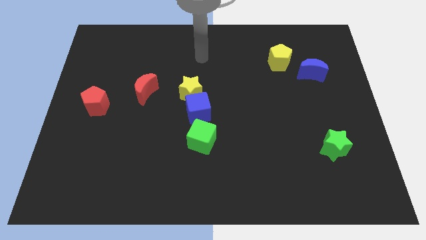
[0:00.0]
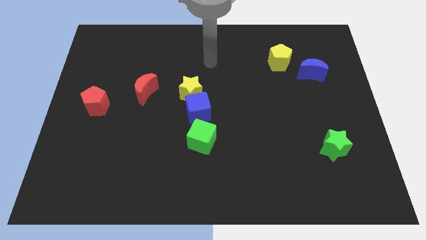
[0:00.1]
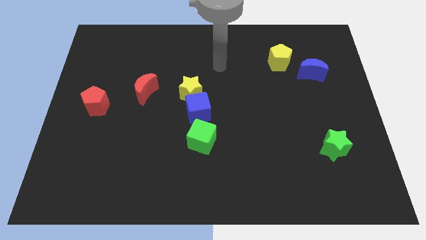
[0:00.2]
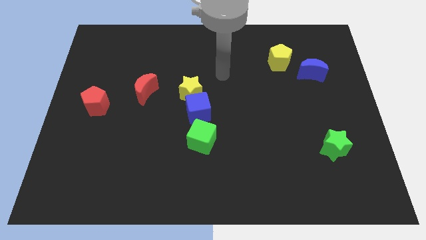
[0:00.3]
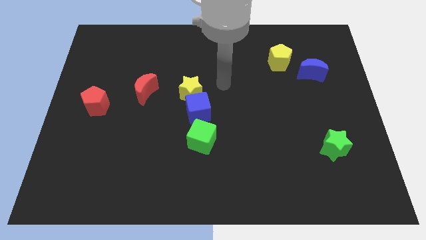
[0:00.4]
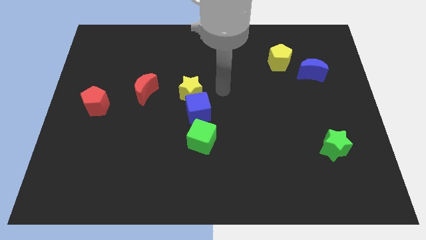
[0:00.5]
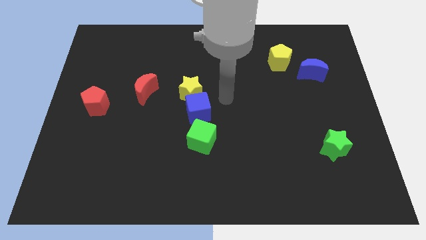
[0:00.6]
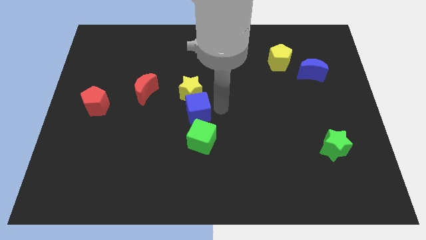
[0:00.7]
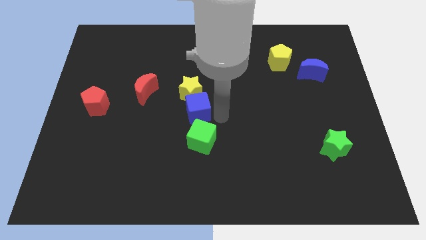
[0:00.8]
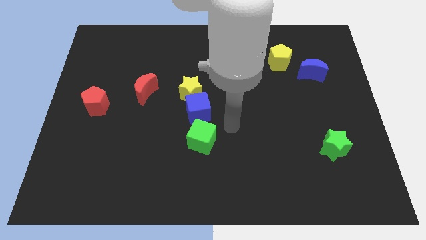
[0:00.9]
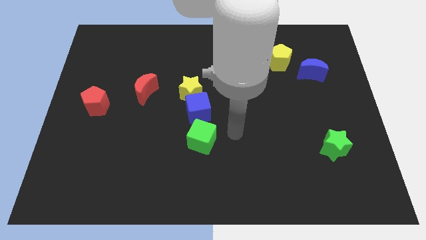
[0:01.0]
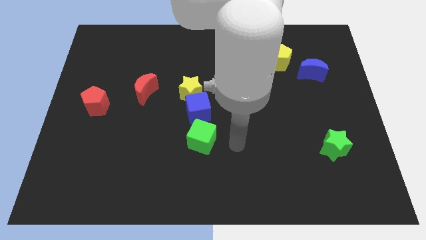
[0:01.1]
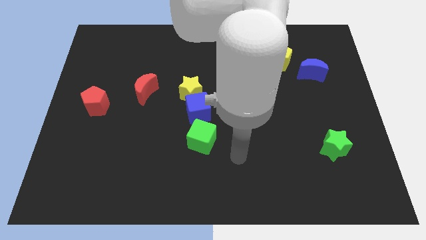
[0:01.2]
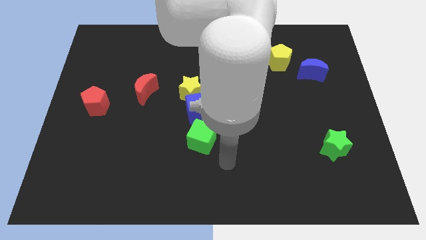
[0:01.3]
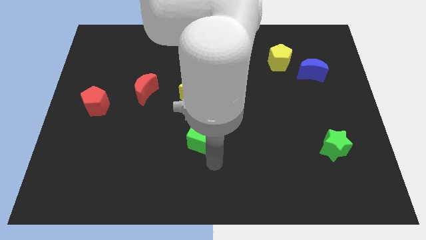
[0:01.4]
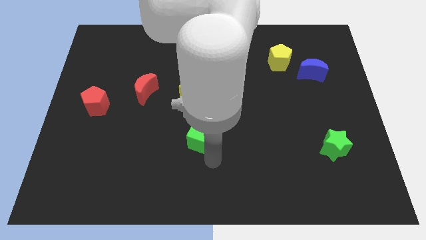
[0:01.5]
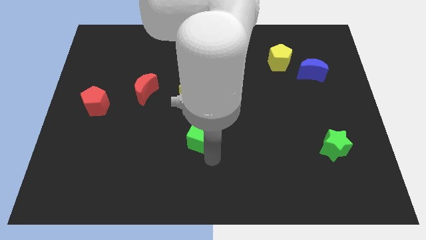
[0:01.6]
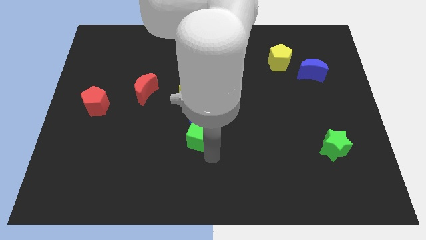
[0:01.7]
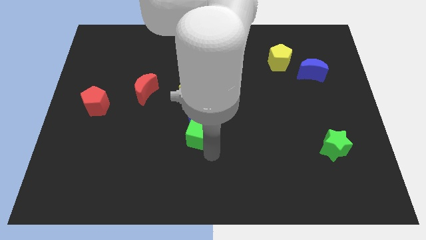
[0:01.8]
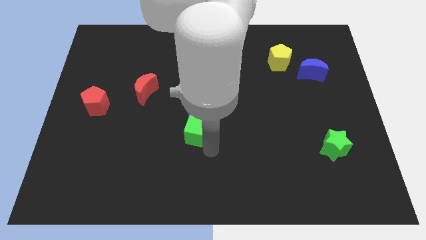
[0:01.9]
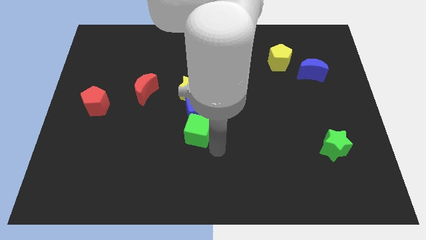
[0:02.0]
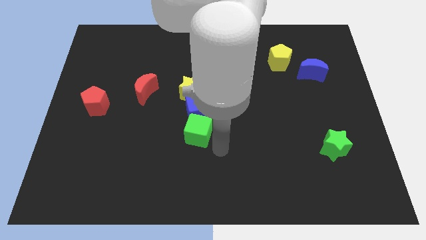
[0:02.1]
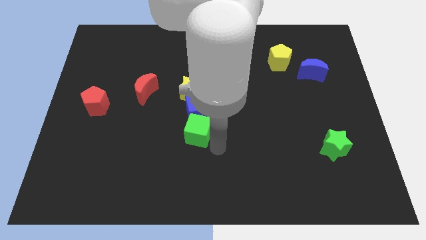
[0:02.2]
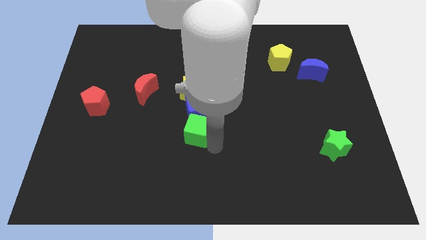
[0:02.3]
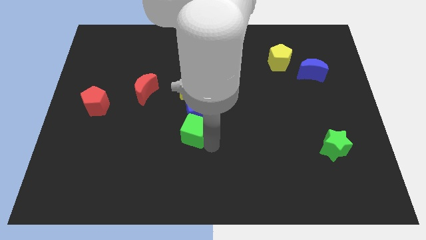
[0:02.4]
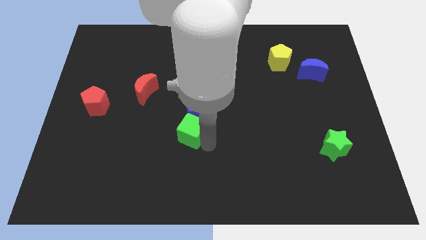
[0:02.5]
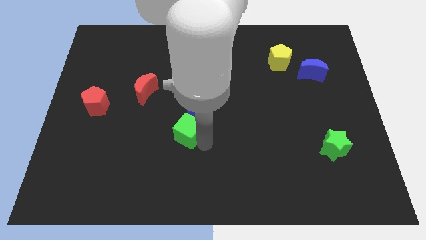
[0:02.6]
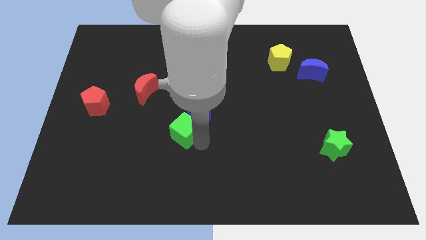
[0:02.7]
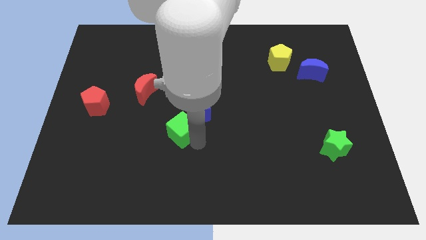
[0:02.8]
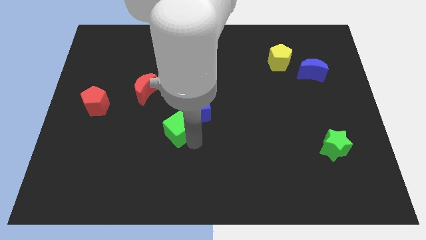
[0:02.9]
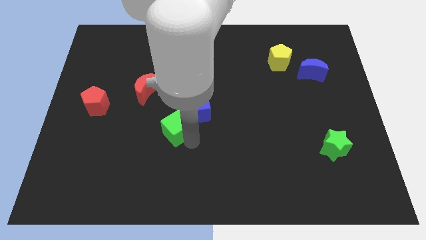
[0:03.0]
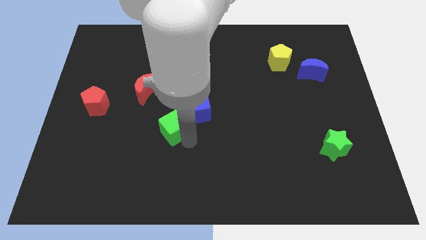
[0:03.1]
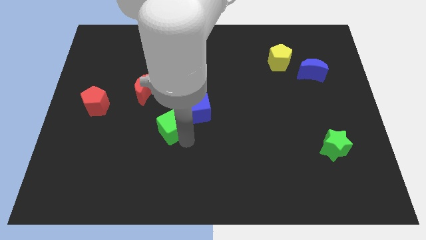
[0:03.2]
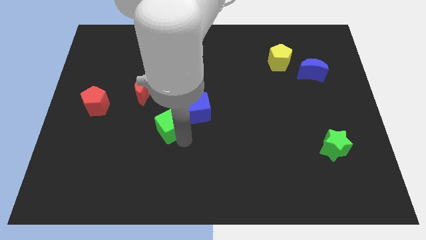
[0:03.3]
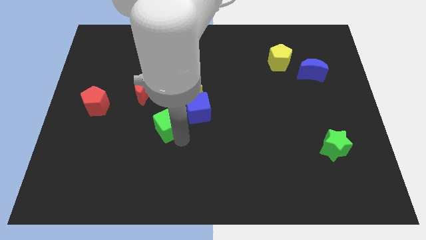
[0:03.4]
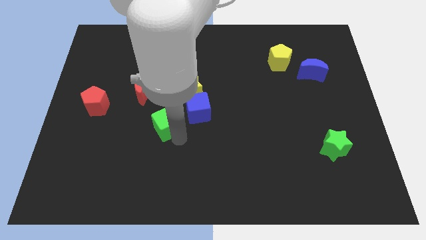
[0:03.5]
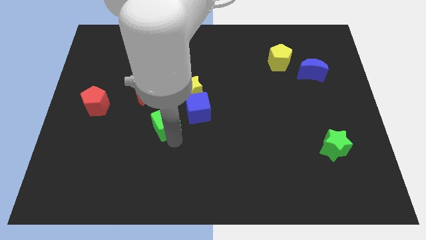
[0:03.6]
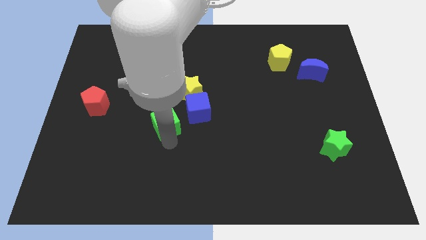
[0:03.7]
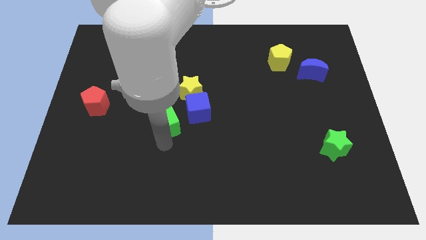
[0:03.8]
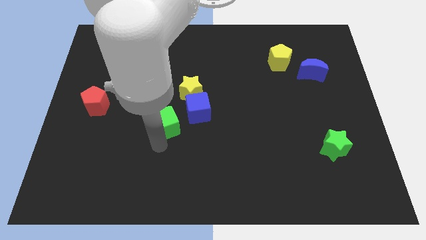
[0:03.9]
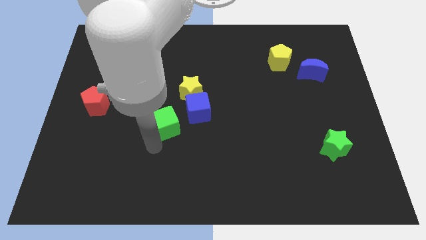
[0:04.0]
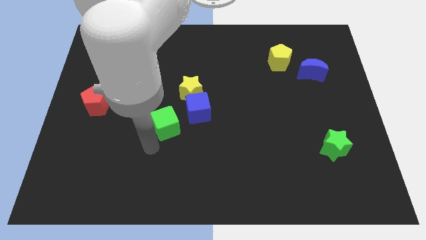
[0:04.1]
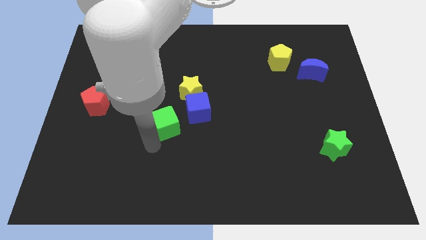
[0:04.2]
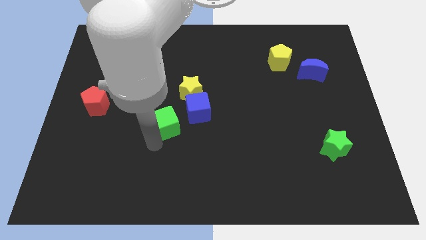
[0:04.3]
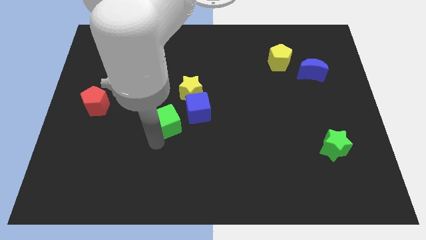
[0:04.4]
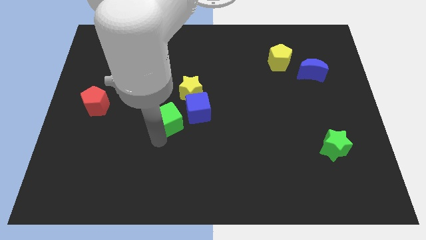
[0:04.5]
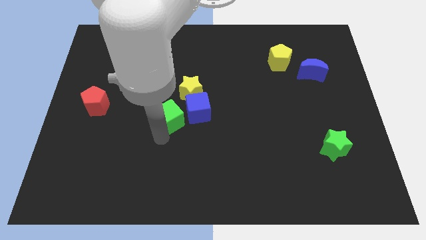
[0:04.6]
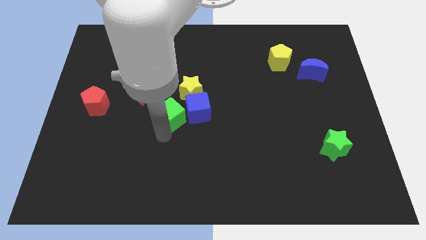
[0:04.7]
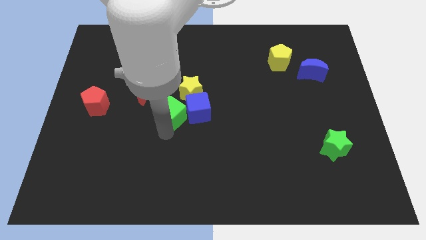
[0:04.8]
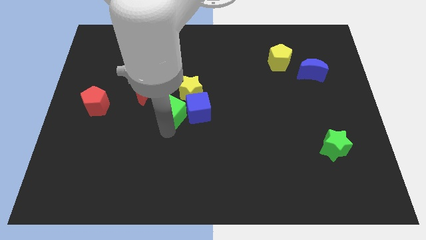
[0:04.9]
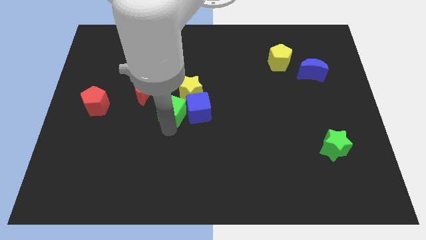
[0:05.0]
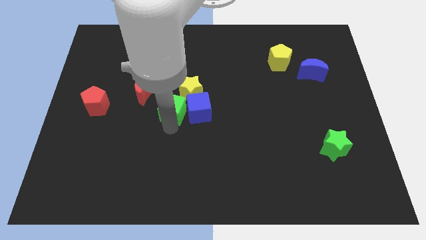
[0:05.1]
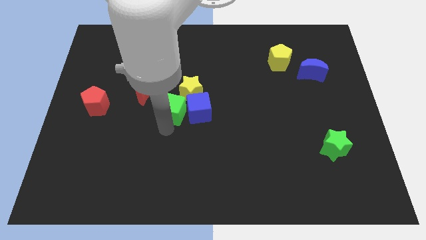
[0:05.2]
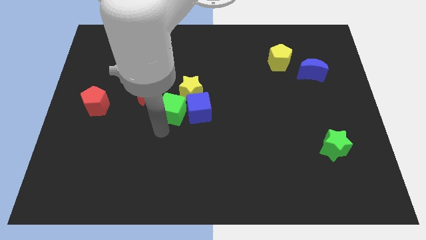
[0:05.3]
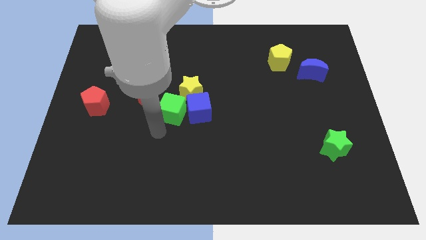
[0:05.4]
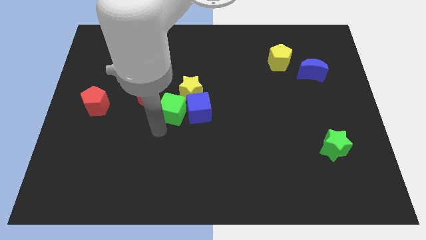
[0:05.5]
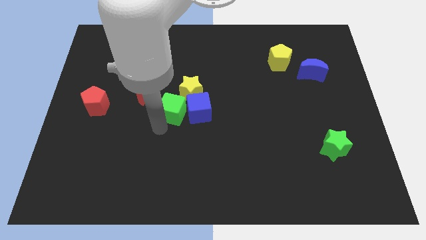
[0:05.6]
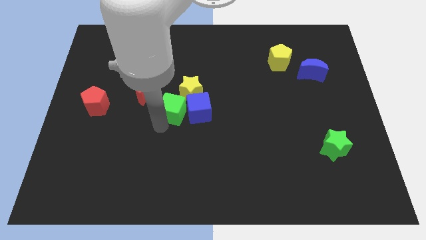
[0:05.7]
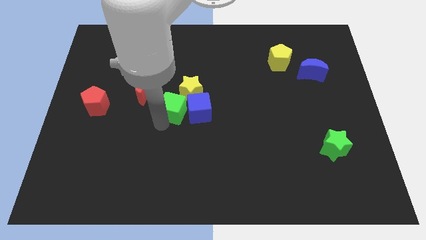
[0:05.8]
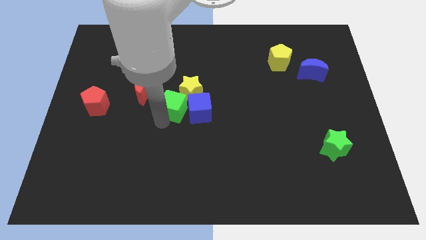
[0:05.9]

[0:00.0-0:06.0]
push the green cube next to the yellow star

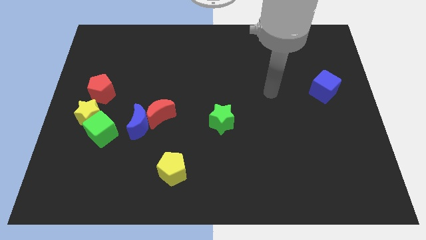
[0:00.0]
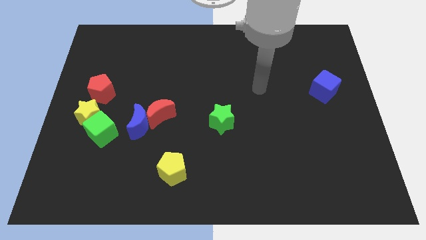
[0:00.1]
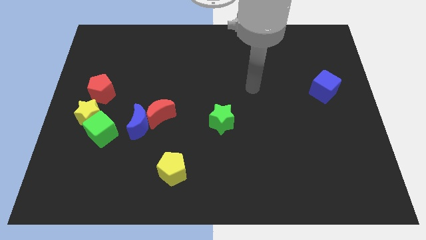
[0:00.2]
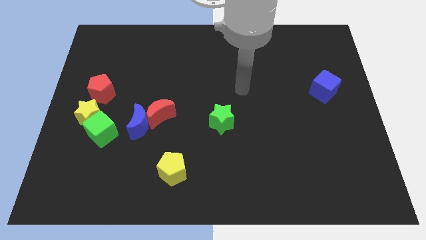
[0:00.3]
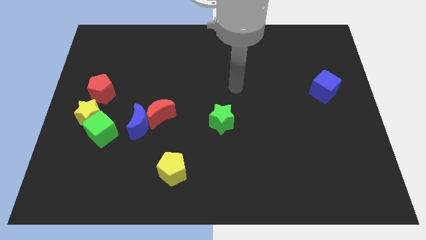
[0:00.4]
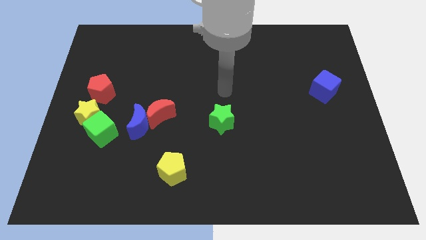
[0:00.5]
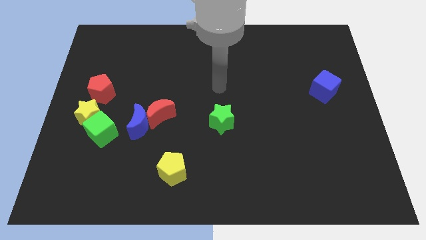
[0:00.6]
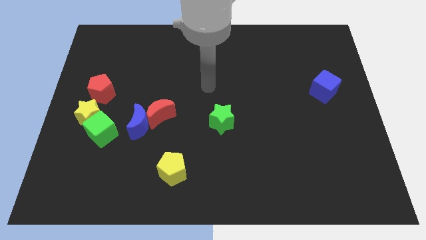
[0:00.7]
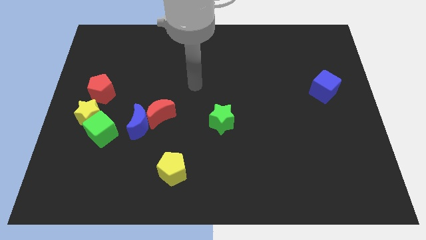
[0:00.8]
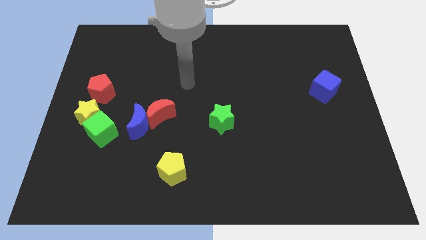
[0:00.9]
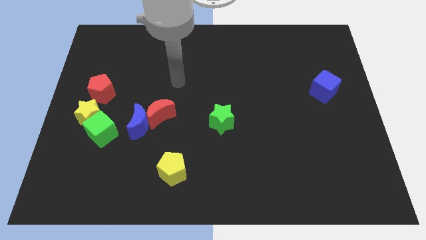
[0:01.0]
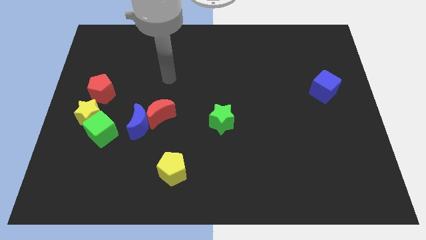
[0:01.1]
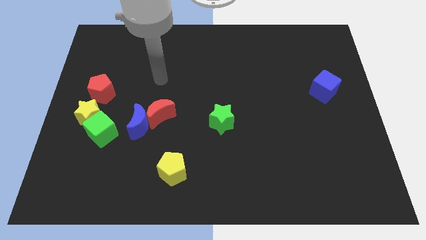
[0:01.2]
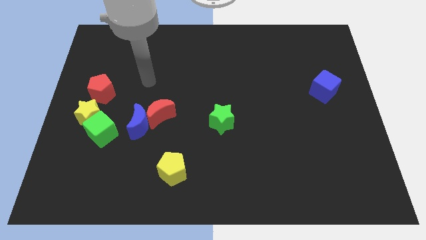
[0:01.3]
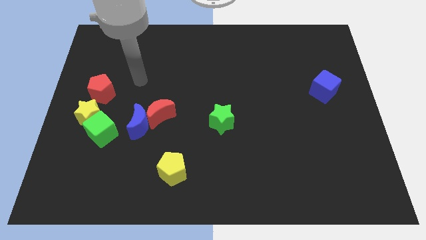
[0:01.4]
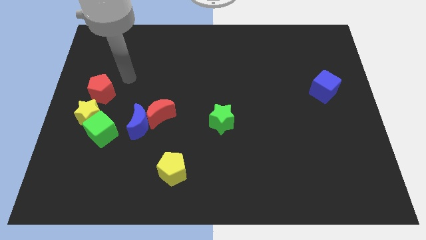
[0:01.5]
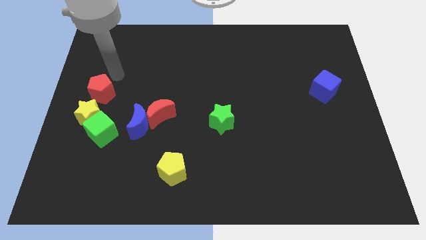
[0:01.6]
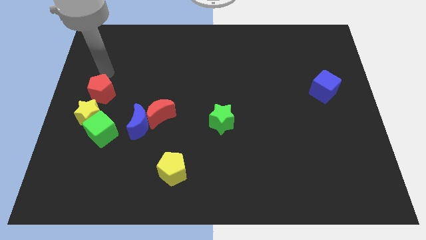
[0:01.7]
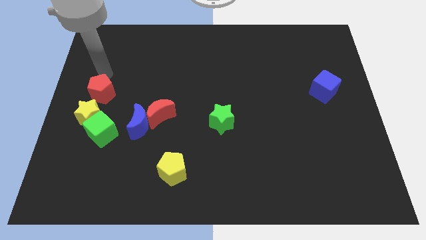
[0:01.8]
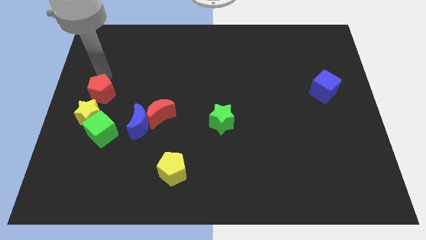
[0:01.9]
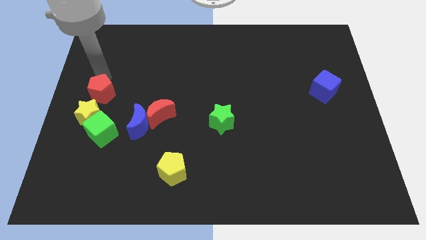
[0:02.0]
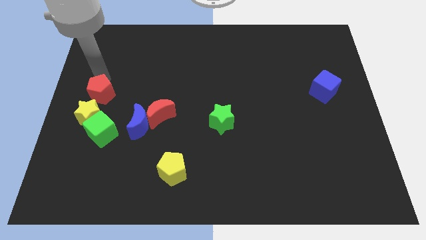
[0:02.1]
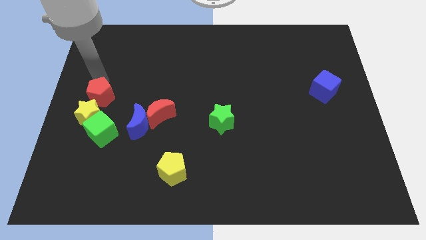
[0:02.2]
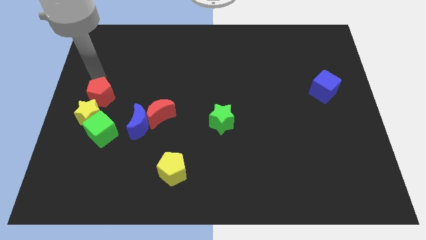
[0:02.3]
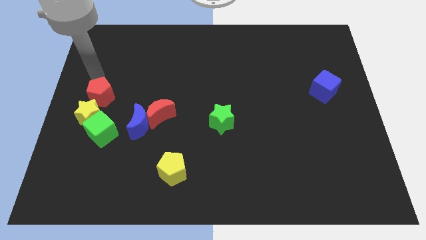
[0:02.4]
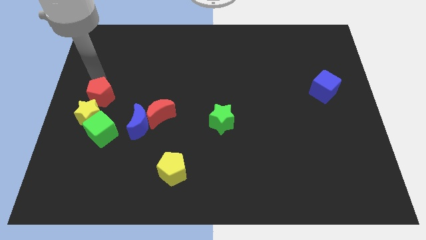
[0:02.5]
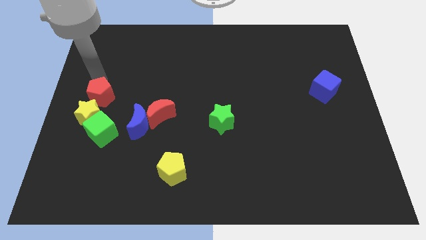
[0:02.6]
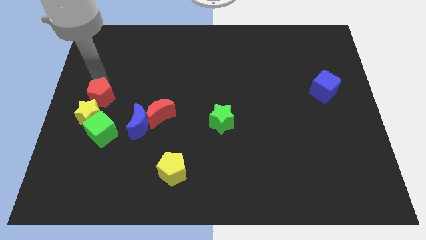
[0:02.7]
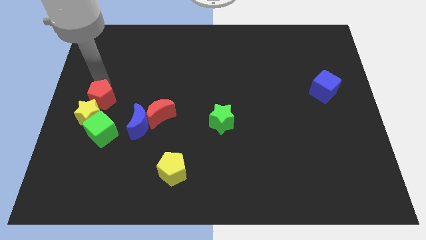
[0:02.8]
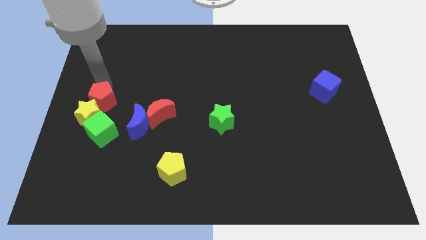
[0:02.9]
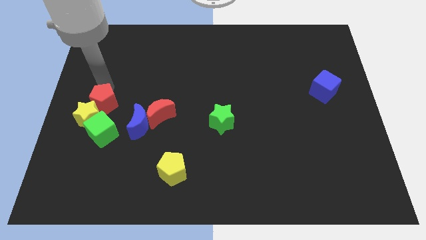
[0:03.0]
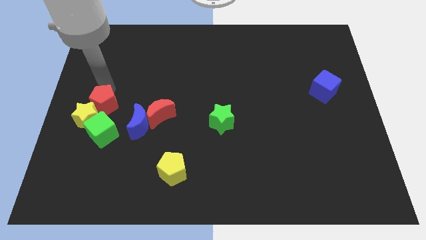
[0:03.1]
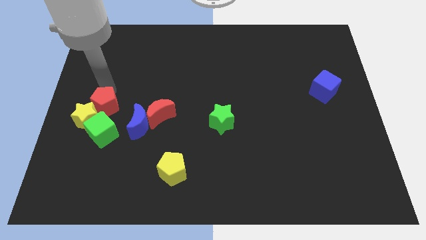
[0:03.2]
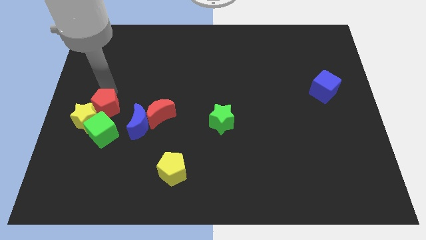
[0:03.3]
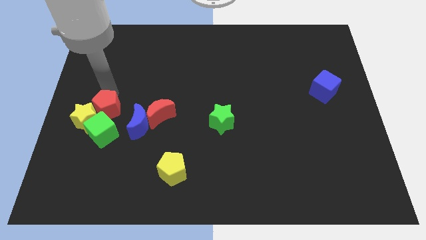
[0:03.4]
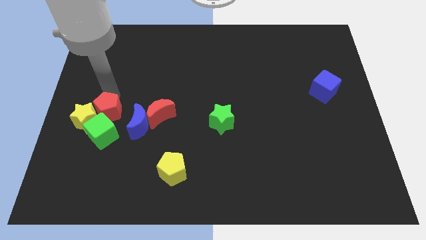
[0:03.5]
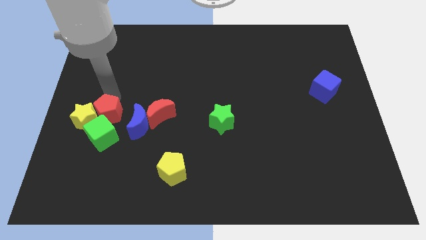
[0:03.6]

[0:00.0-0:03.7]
push the red pentagon towards the green cube
